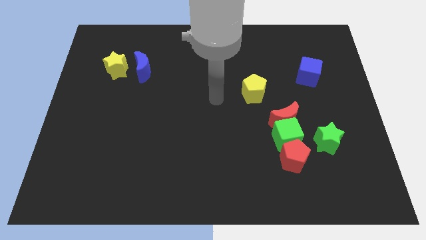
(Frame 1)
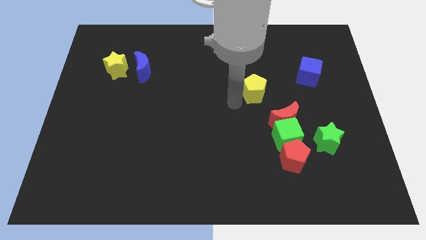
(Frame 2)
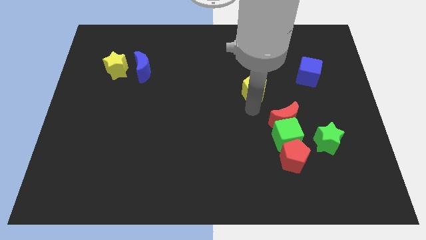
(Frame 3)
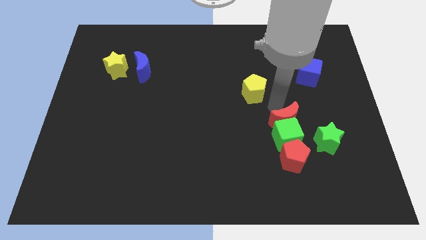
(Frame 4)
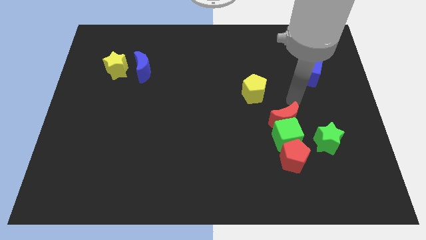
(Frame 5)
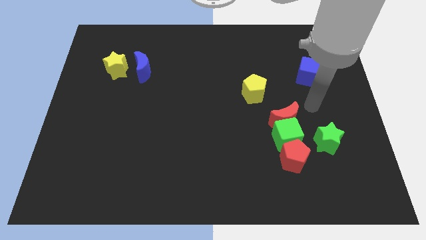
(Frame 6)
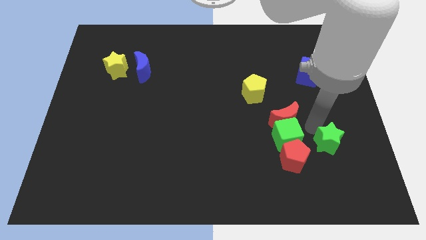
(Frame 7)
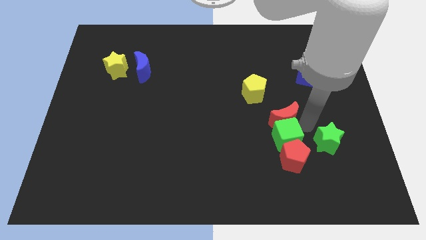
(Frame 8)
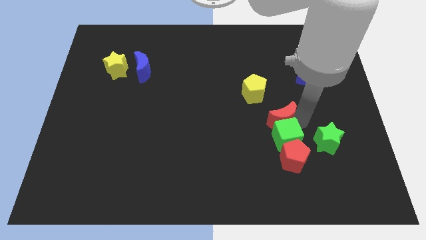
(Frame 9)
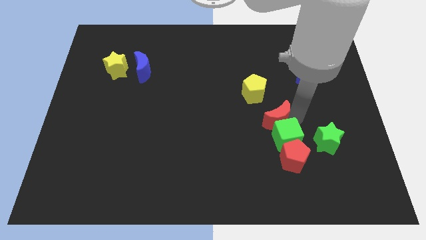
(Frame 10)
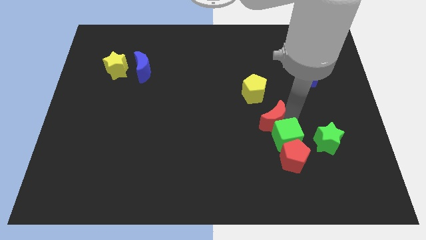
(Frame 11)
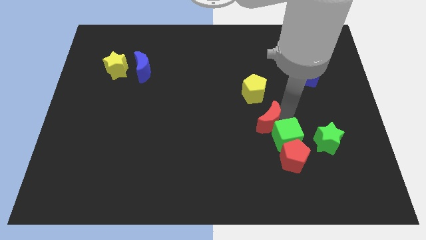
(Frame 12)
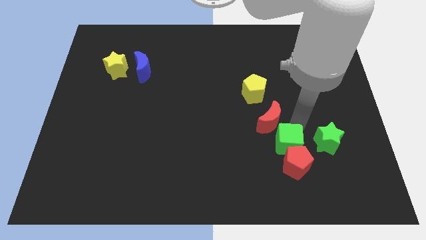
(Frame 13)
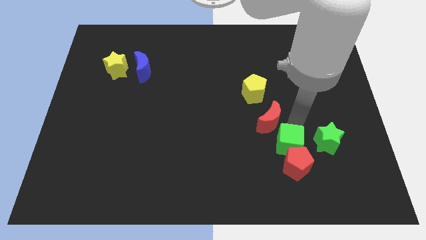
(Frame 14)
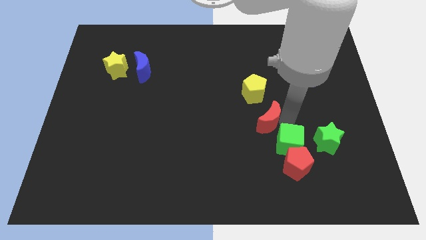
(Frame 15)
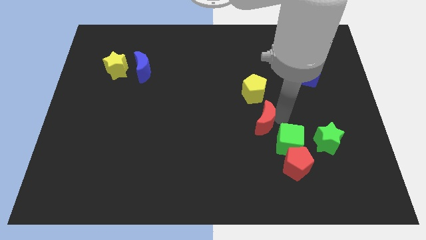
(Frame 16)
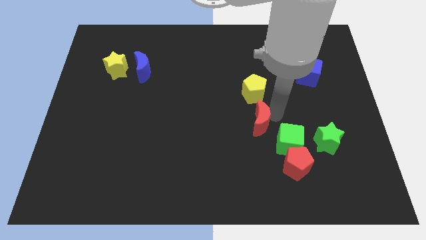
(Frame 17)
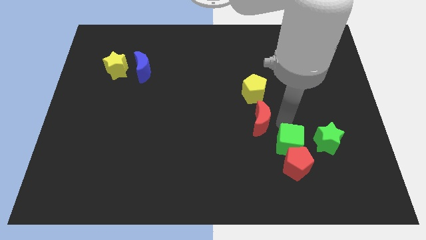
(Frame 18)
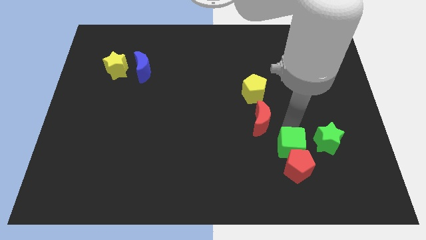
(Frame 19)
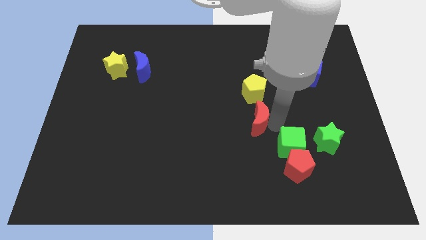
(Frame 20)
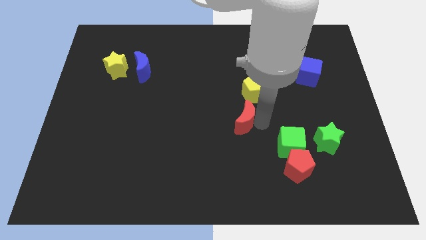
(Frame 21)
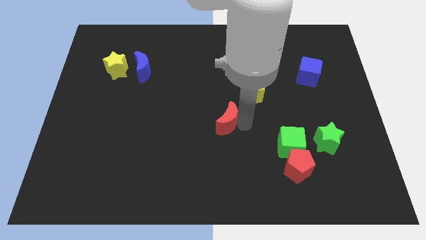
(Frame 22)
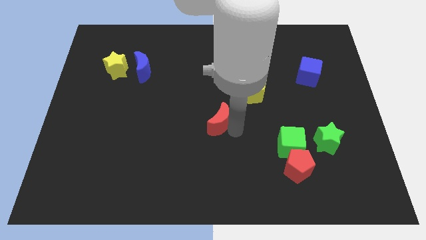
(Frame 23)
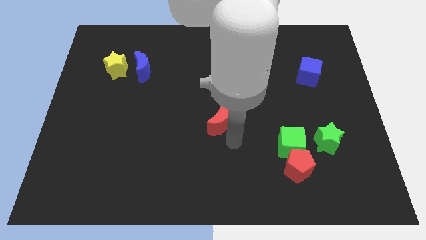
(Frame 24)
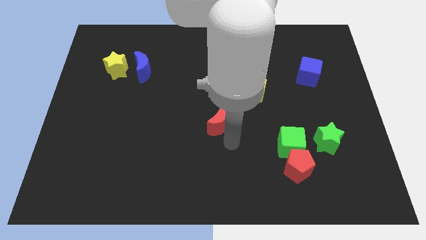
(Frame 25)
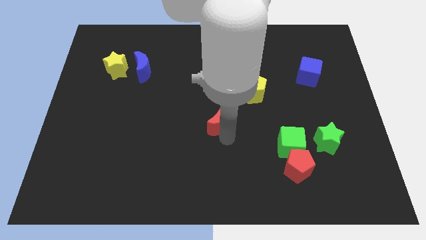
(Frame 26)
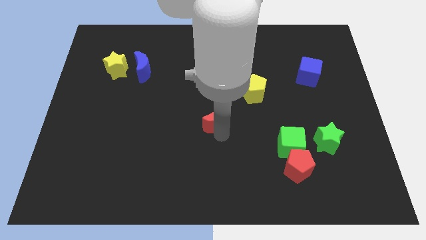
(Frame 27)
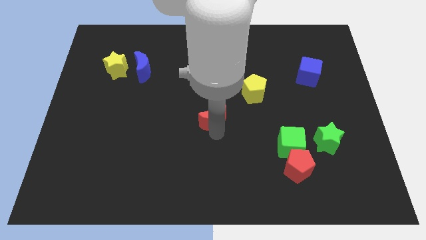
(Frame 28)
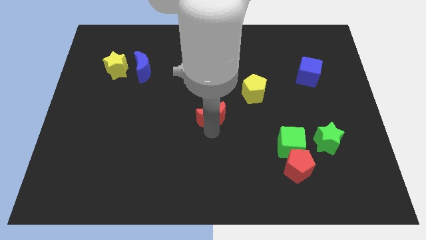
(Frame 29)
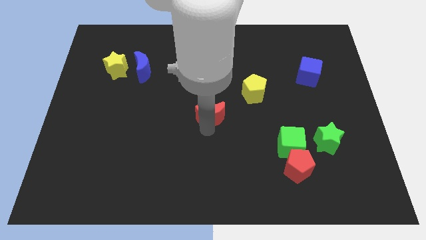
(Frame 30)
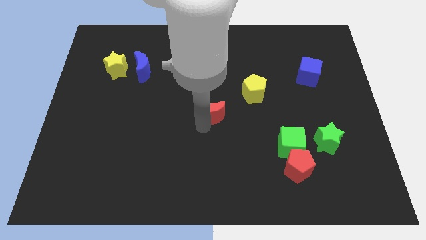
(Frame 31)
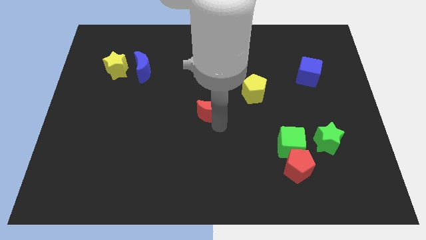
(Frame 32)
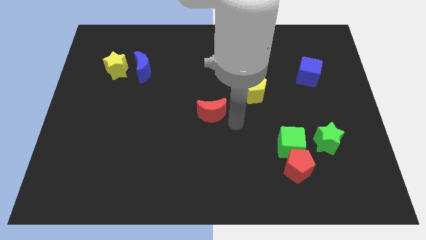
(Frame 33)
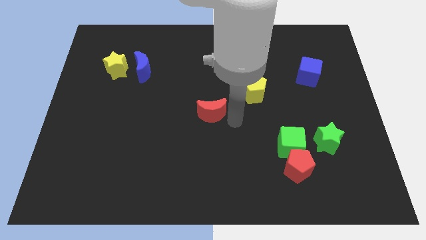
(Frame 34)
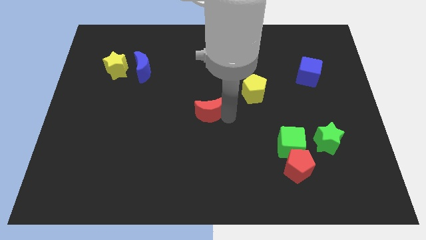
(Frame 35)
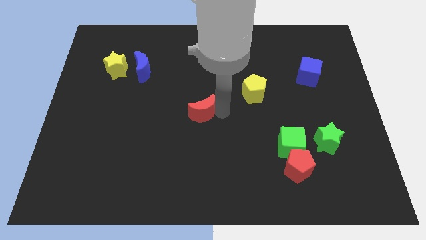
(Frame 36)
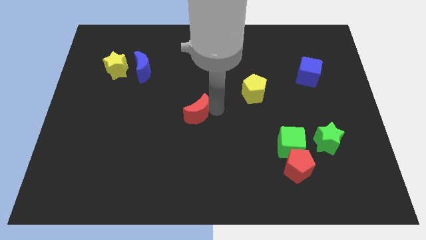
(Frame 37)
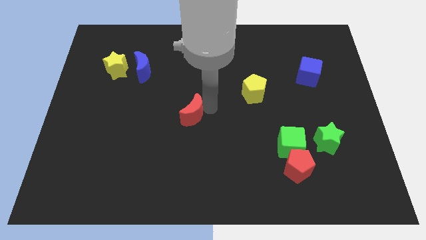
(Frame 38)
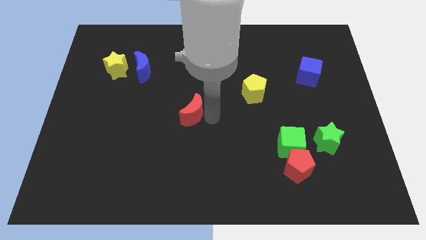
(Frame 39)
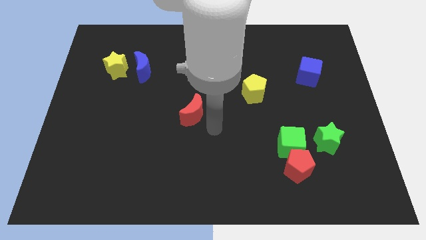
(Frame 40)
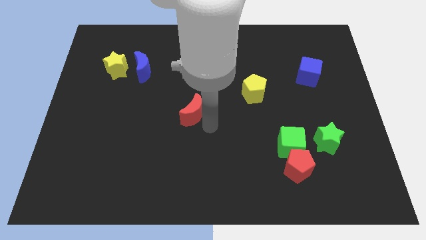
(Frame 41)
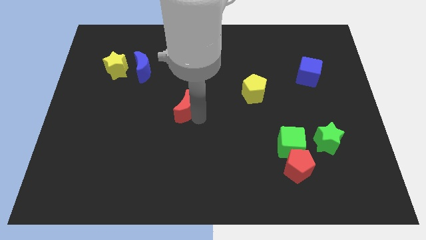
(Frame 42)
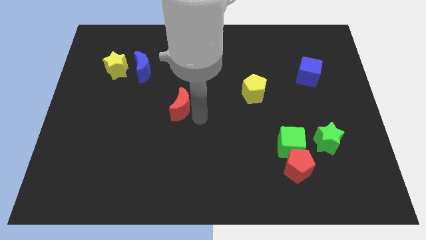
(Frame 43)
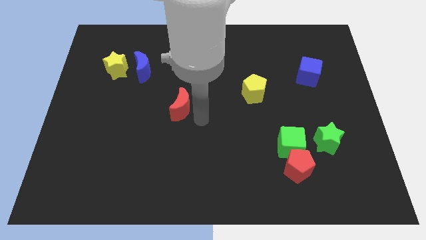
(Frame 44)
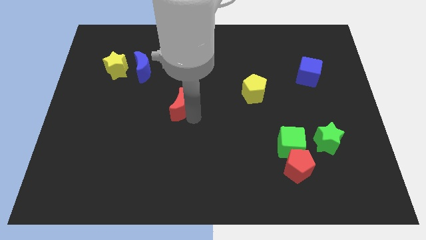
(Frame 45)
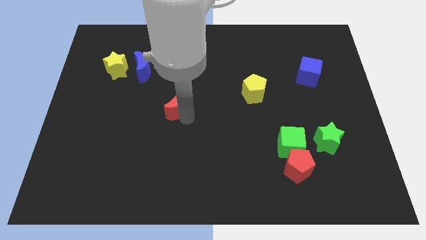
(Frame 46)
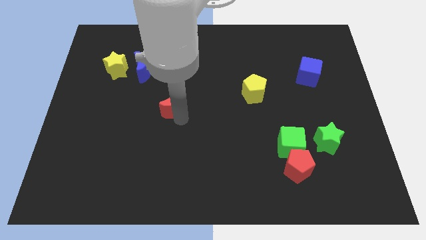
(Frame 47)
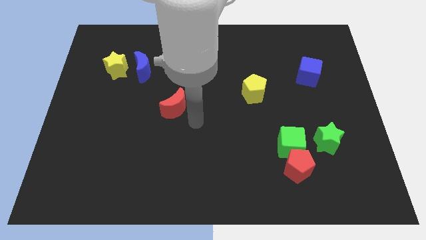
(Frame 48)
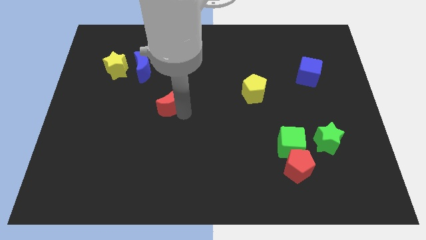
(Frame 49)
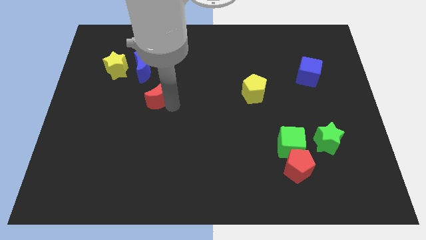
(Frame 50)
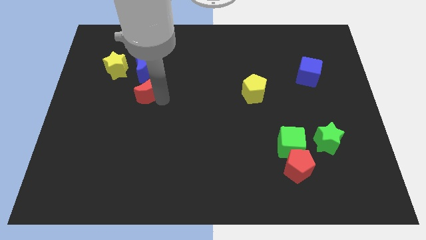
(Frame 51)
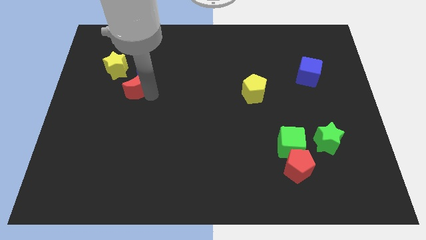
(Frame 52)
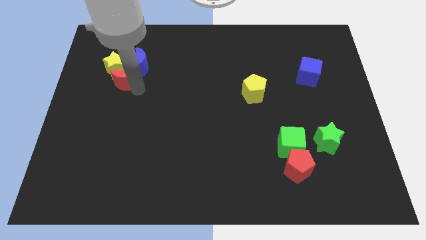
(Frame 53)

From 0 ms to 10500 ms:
put the red moon to the yellow star

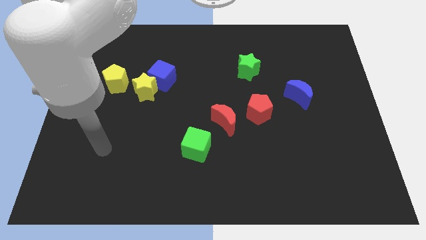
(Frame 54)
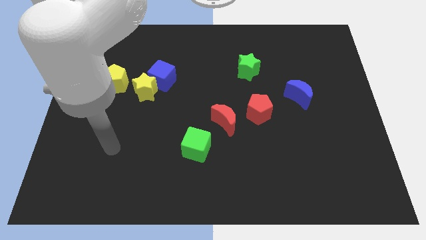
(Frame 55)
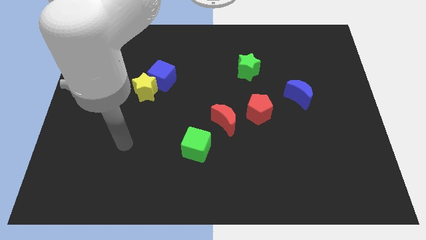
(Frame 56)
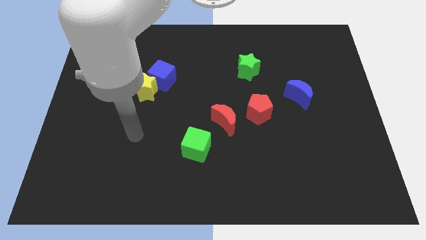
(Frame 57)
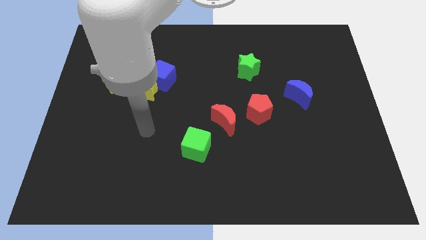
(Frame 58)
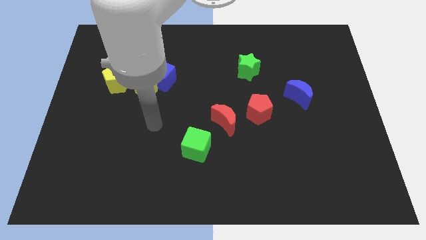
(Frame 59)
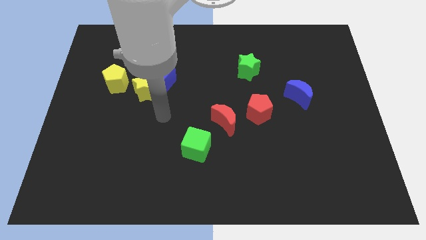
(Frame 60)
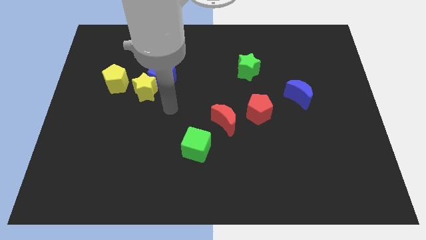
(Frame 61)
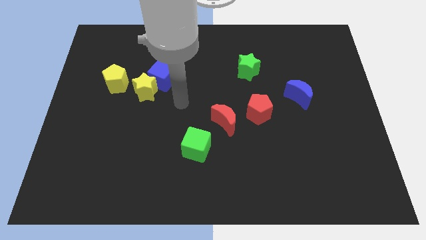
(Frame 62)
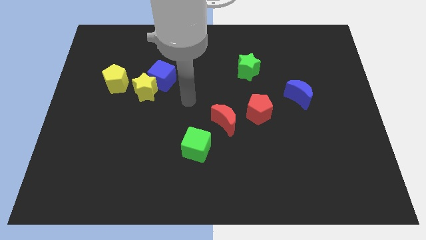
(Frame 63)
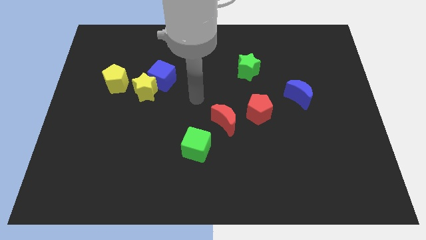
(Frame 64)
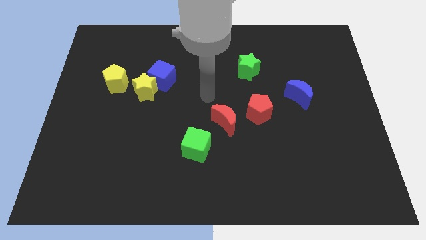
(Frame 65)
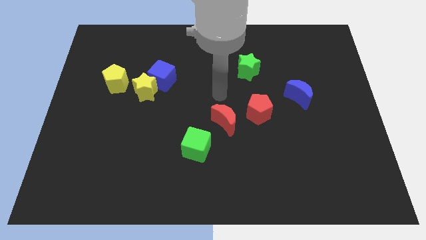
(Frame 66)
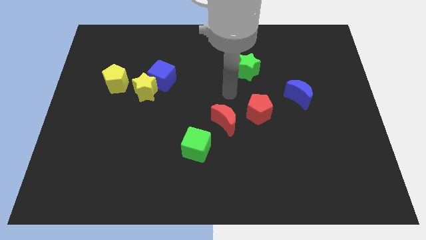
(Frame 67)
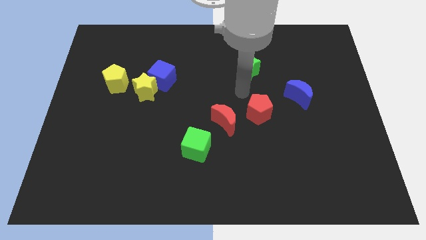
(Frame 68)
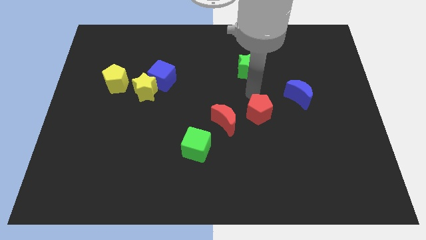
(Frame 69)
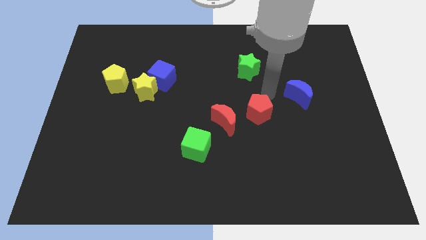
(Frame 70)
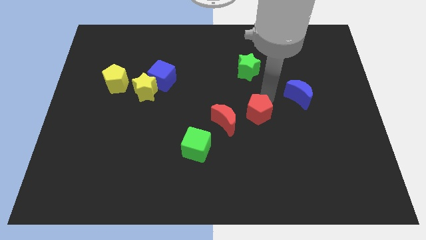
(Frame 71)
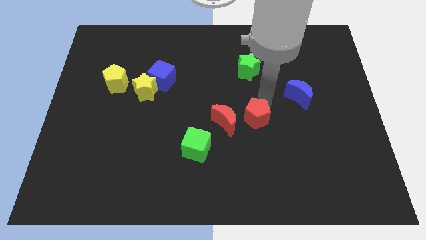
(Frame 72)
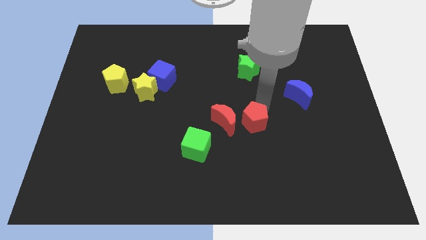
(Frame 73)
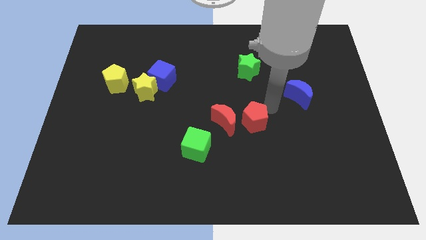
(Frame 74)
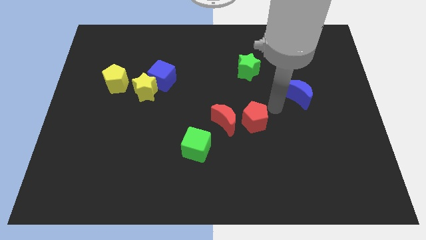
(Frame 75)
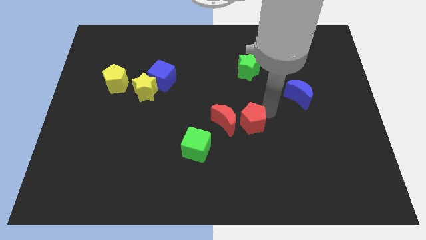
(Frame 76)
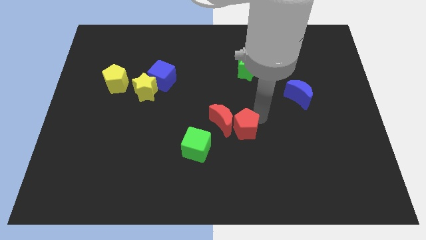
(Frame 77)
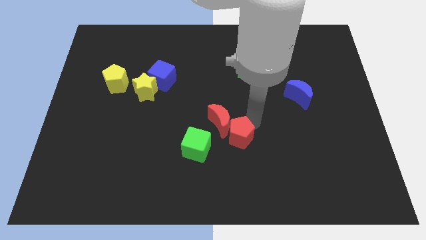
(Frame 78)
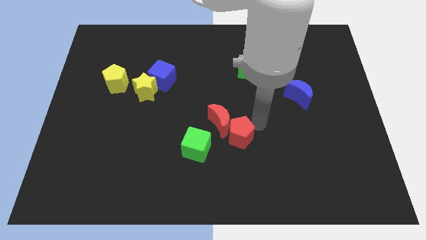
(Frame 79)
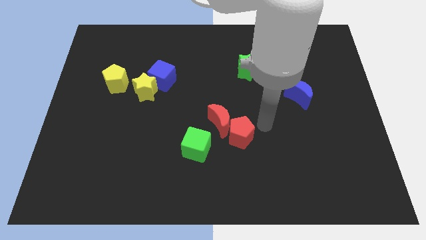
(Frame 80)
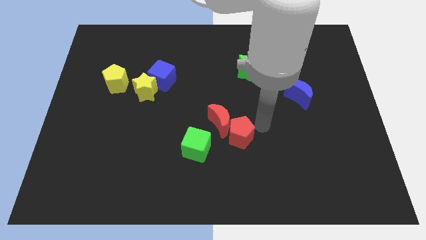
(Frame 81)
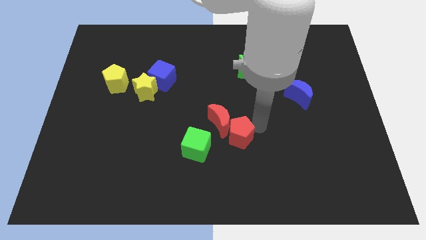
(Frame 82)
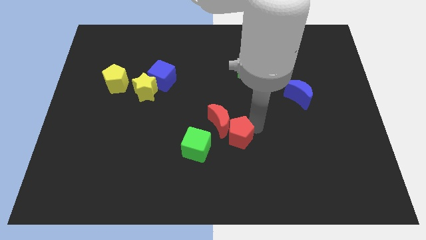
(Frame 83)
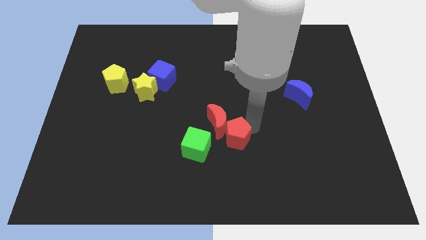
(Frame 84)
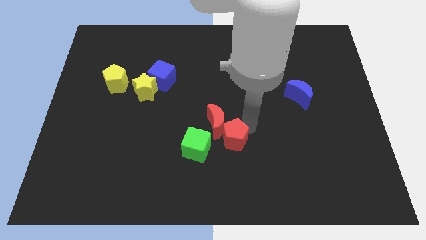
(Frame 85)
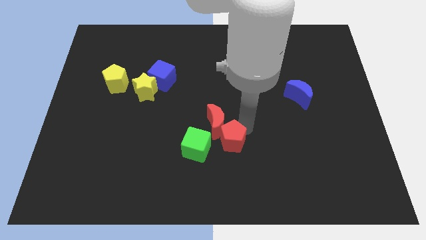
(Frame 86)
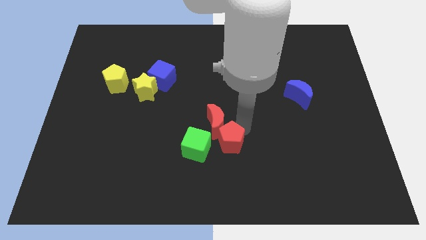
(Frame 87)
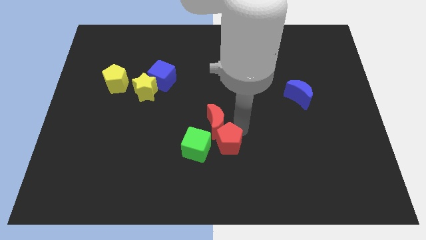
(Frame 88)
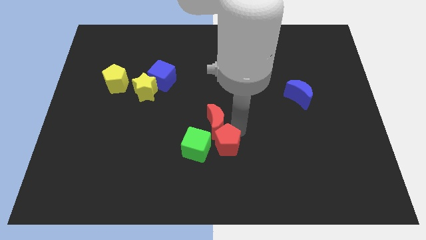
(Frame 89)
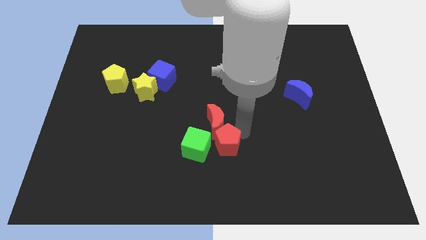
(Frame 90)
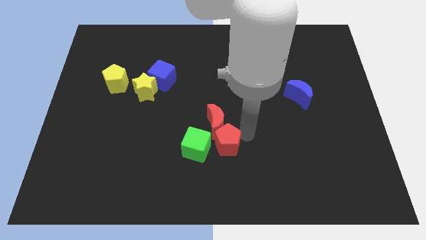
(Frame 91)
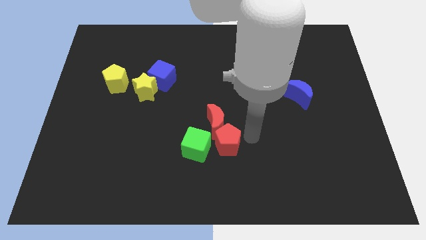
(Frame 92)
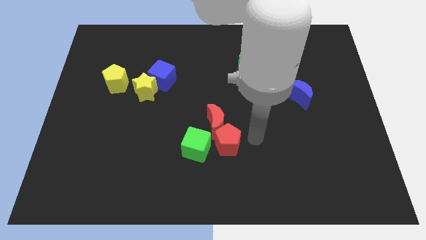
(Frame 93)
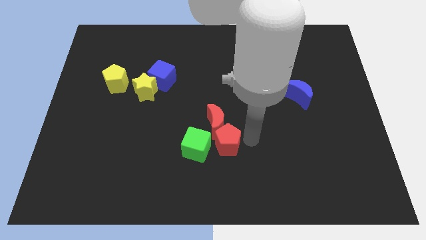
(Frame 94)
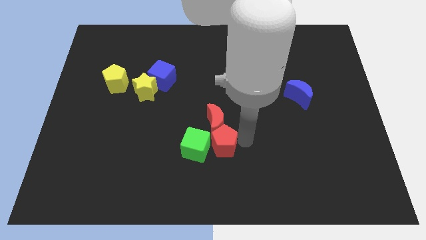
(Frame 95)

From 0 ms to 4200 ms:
put the red pentagon to the green cube
